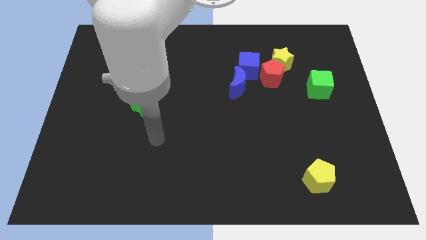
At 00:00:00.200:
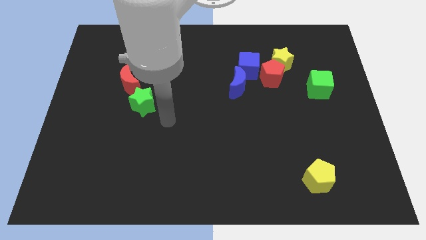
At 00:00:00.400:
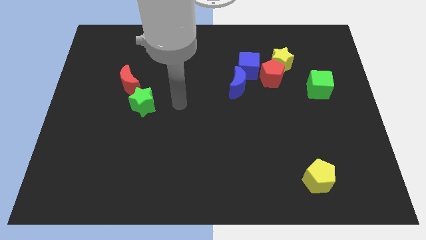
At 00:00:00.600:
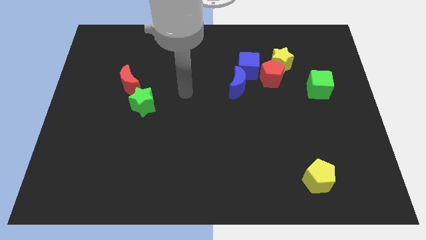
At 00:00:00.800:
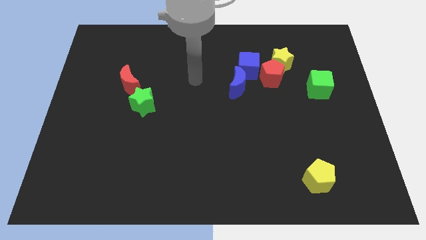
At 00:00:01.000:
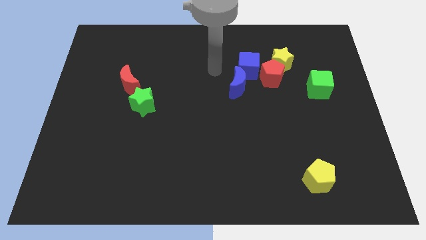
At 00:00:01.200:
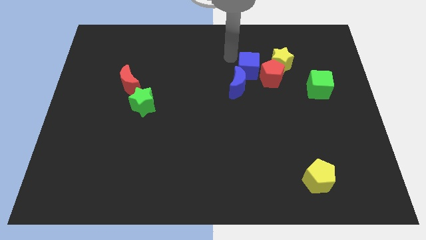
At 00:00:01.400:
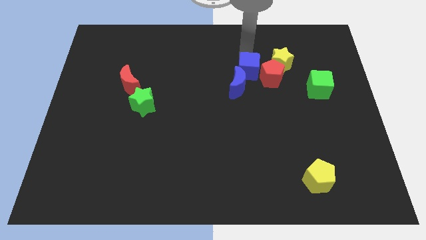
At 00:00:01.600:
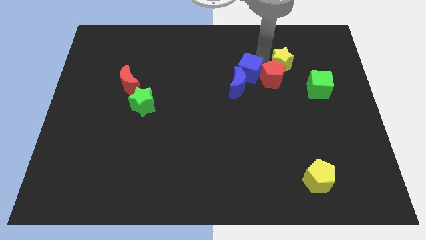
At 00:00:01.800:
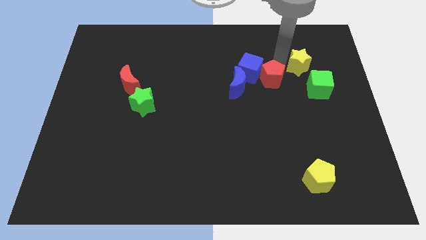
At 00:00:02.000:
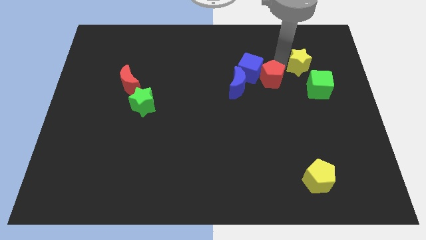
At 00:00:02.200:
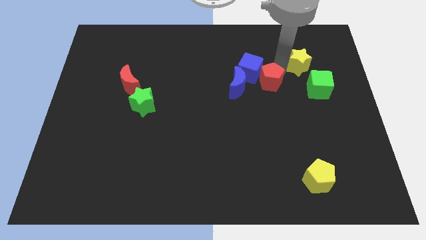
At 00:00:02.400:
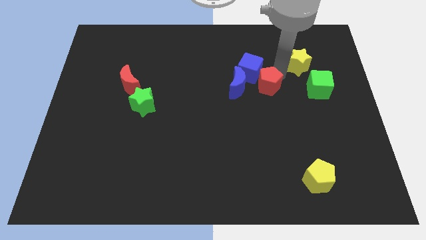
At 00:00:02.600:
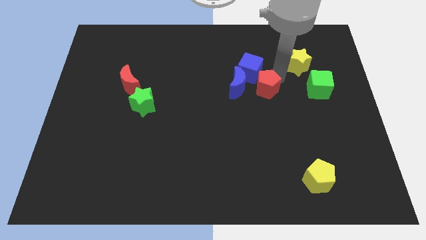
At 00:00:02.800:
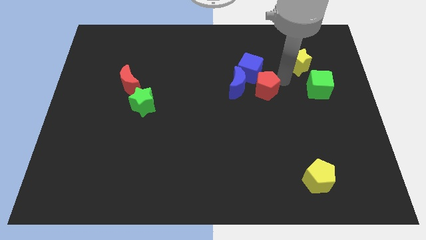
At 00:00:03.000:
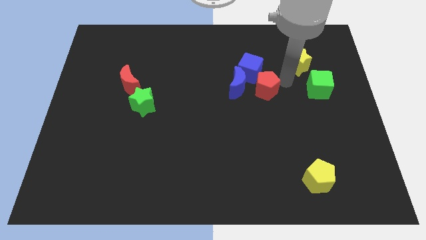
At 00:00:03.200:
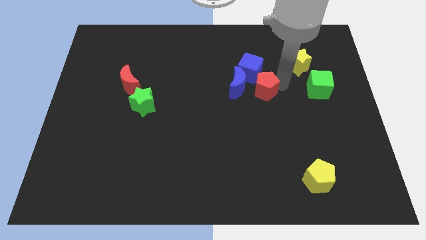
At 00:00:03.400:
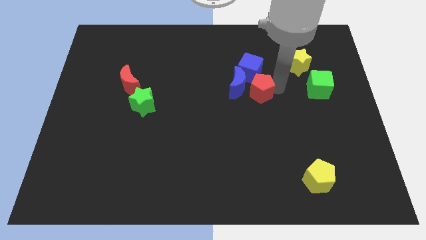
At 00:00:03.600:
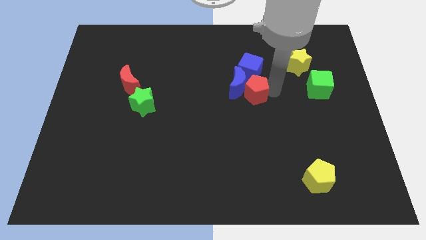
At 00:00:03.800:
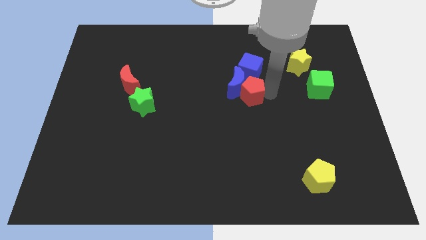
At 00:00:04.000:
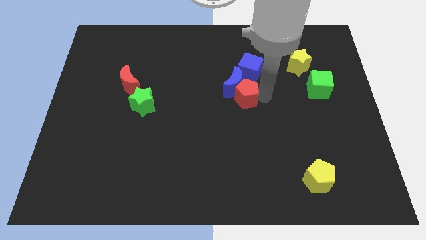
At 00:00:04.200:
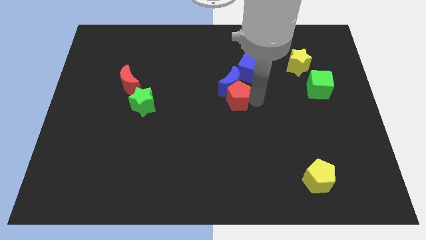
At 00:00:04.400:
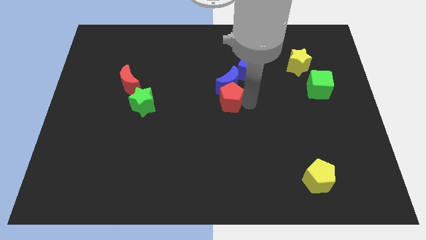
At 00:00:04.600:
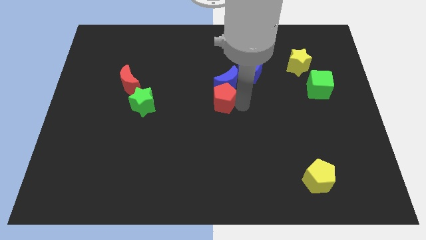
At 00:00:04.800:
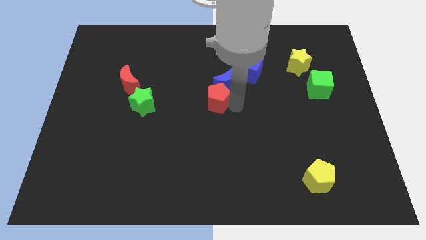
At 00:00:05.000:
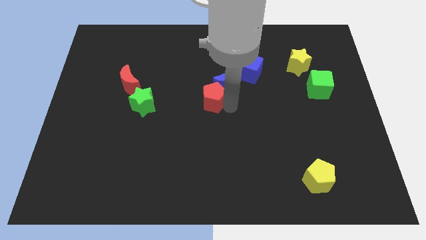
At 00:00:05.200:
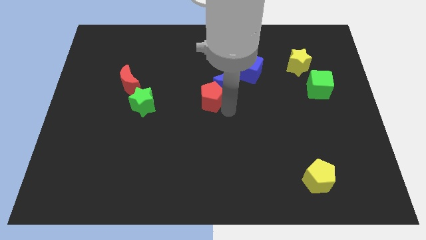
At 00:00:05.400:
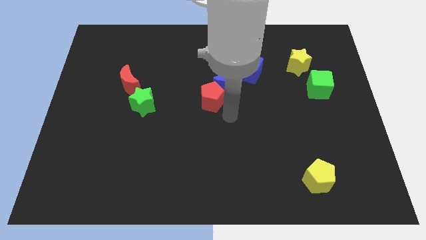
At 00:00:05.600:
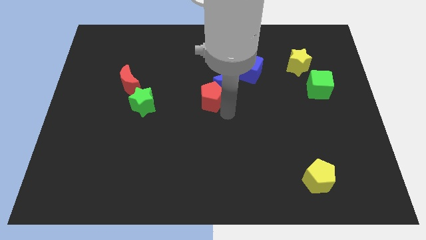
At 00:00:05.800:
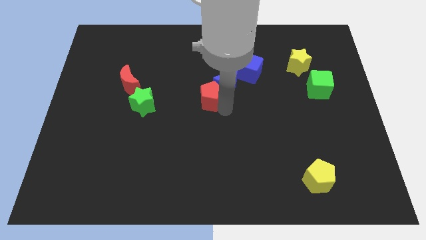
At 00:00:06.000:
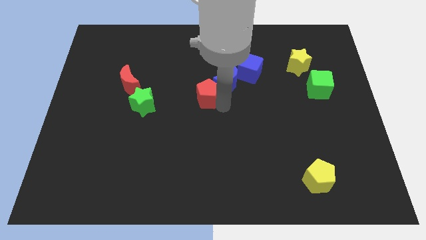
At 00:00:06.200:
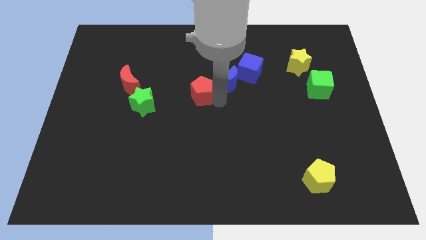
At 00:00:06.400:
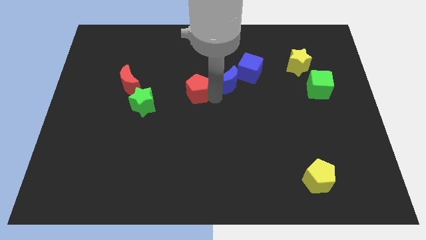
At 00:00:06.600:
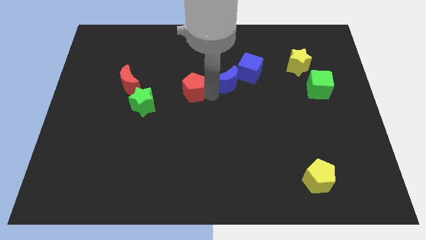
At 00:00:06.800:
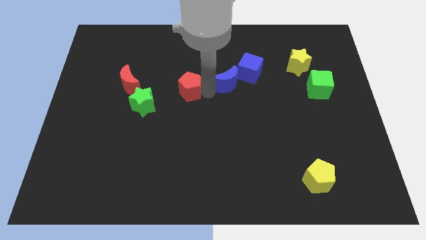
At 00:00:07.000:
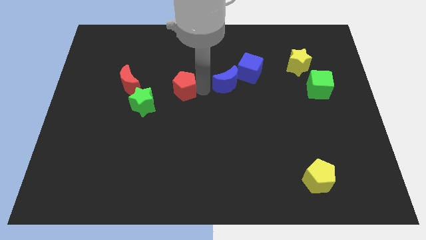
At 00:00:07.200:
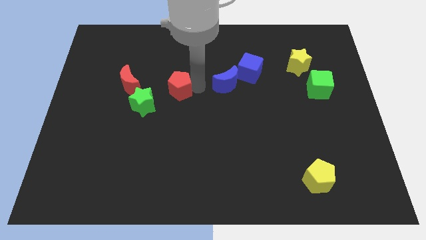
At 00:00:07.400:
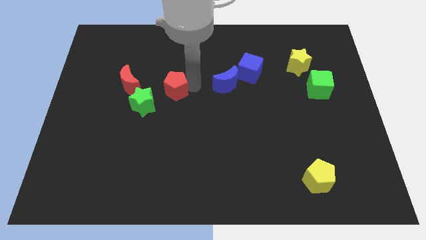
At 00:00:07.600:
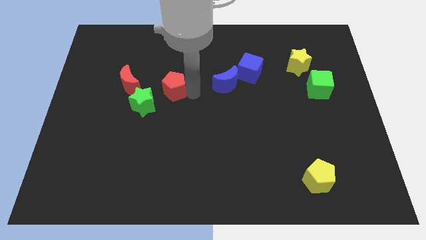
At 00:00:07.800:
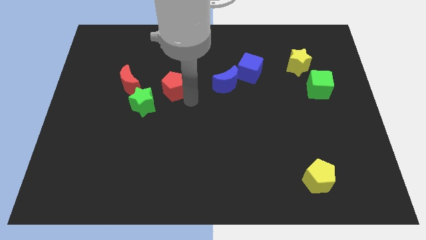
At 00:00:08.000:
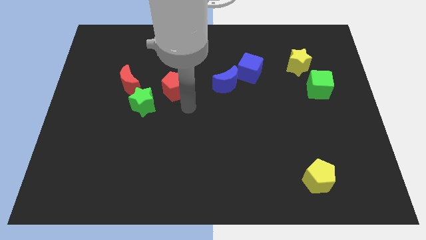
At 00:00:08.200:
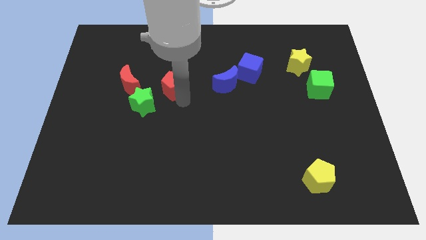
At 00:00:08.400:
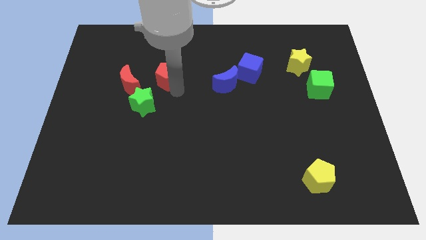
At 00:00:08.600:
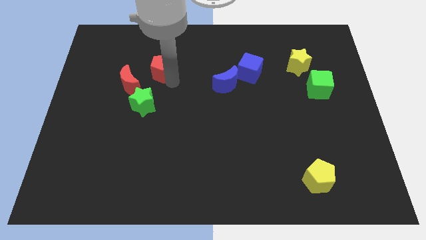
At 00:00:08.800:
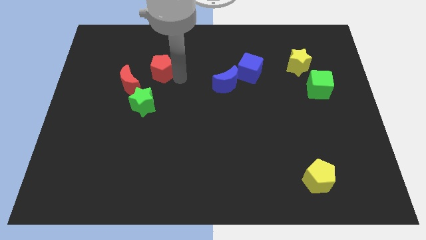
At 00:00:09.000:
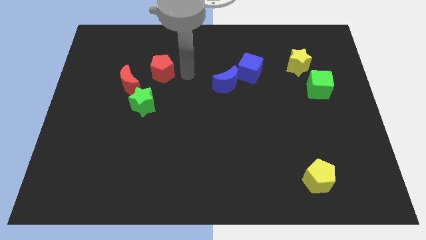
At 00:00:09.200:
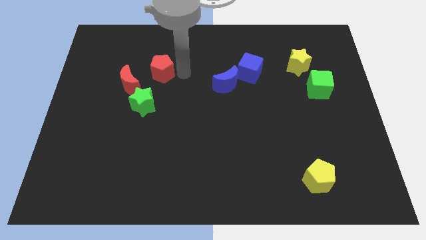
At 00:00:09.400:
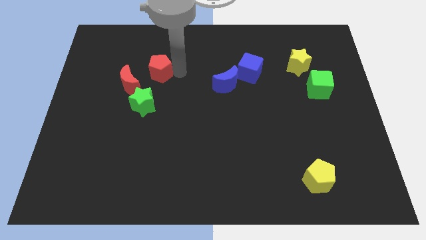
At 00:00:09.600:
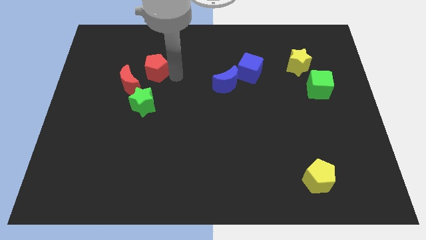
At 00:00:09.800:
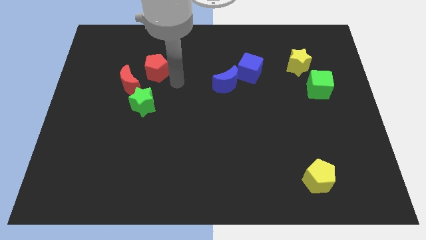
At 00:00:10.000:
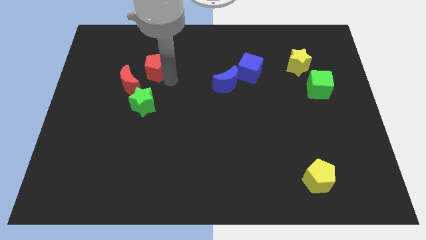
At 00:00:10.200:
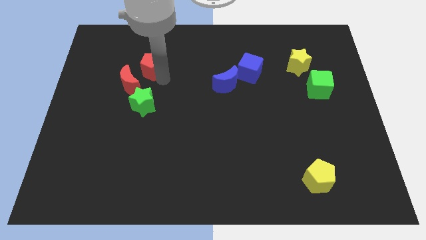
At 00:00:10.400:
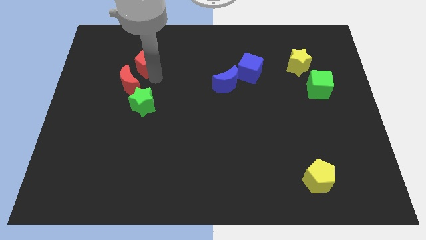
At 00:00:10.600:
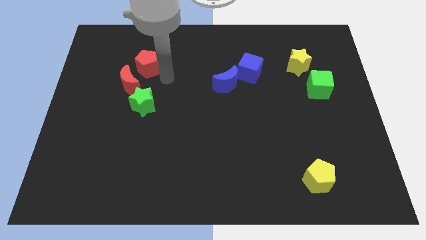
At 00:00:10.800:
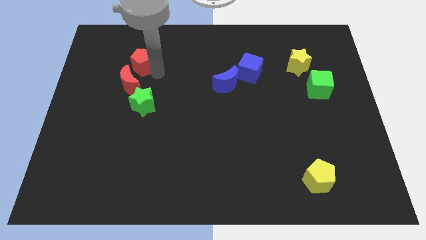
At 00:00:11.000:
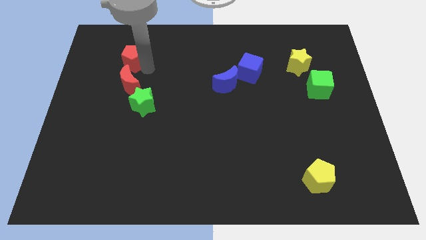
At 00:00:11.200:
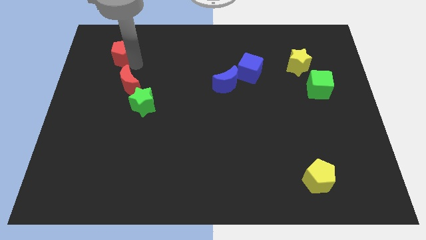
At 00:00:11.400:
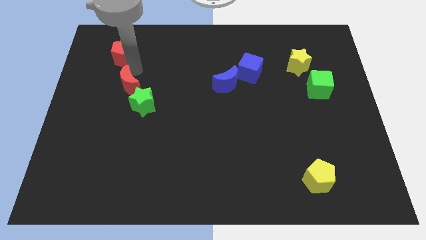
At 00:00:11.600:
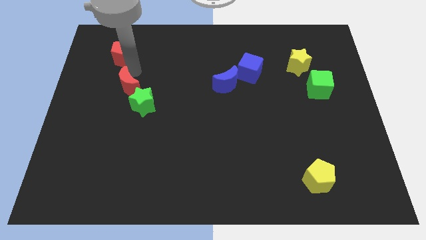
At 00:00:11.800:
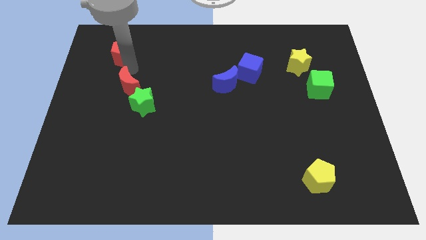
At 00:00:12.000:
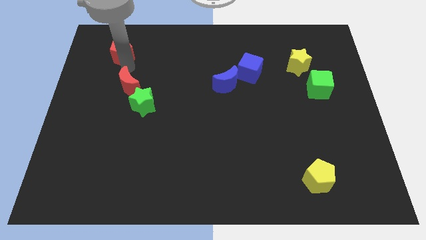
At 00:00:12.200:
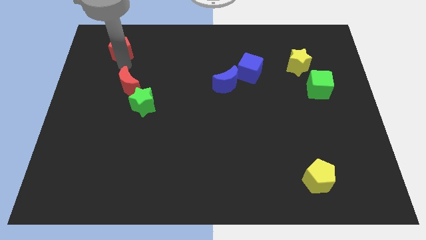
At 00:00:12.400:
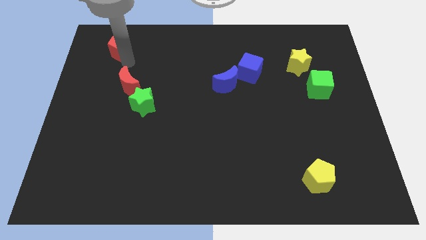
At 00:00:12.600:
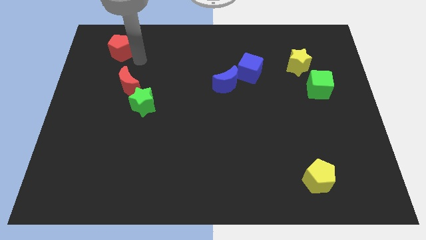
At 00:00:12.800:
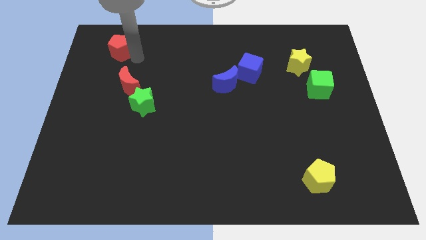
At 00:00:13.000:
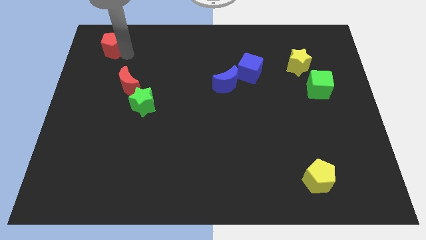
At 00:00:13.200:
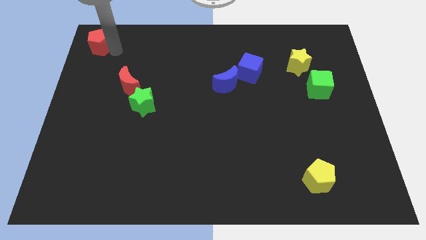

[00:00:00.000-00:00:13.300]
put the red pentagon to the top left corner

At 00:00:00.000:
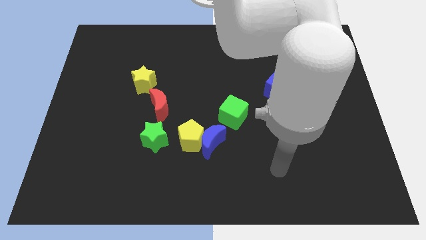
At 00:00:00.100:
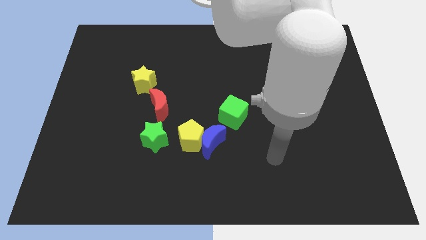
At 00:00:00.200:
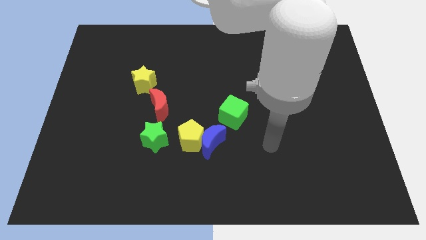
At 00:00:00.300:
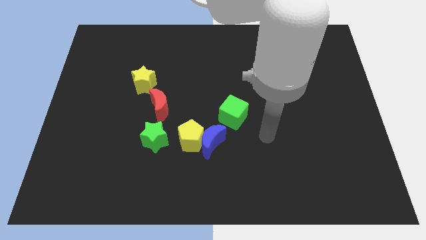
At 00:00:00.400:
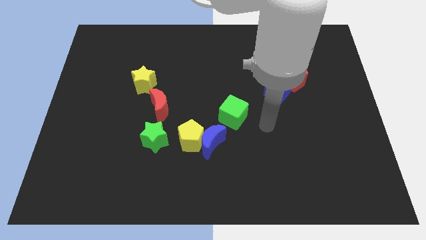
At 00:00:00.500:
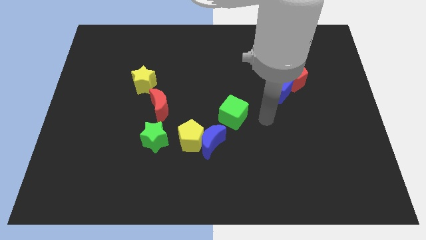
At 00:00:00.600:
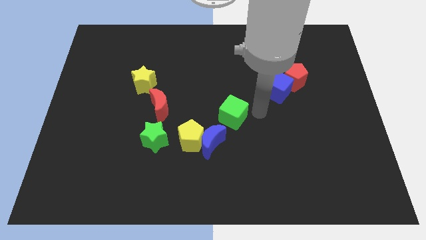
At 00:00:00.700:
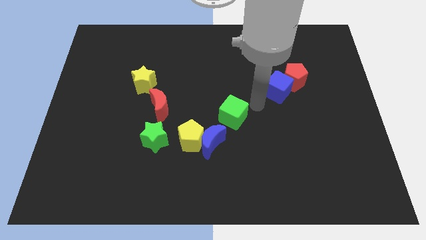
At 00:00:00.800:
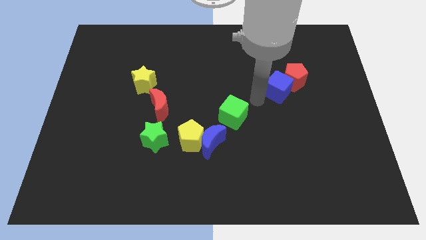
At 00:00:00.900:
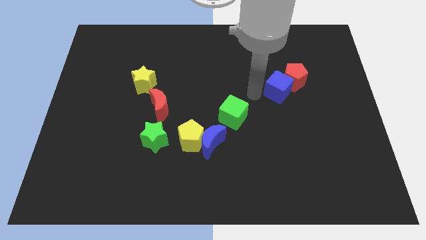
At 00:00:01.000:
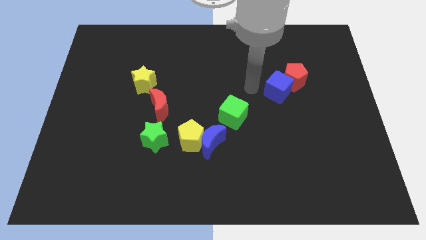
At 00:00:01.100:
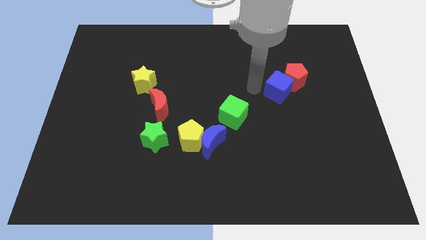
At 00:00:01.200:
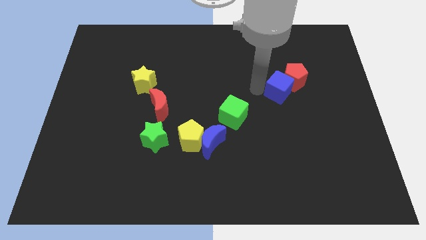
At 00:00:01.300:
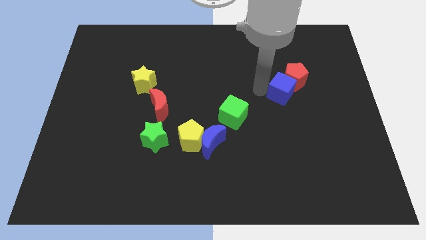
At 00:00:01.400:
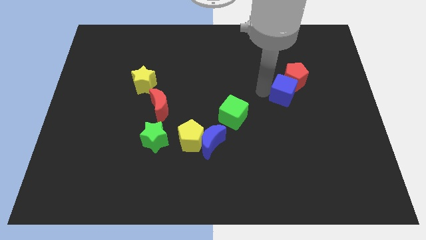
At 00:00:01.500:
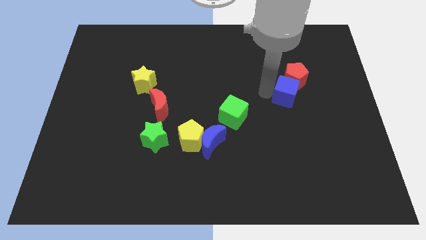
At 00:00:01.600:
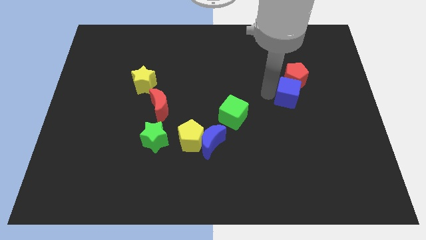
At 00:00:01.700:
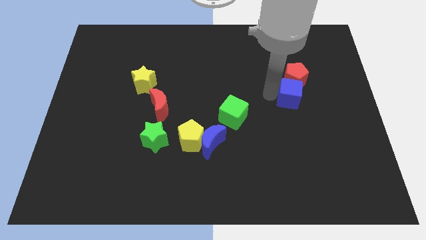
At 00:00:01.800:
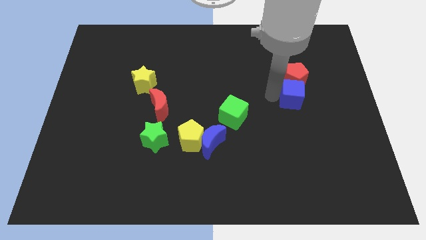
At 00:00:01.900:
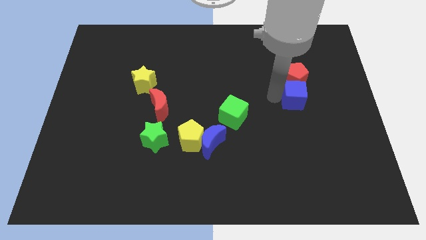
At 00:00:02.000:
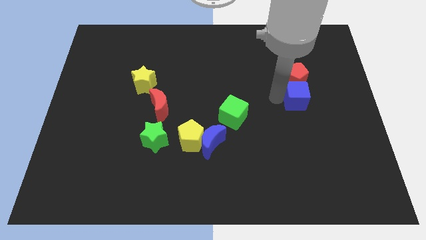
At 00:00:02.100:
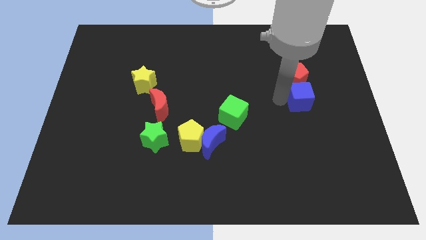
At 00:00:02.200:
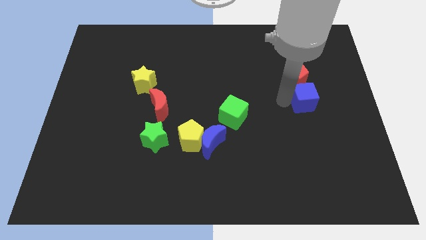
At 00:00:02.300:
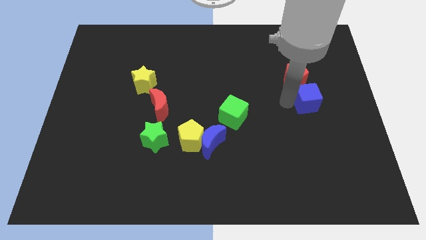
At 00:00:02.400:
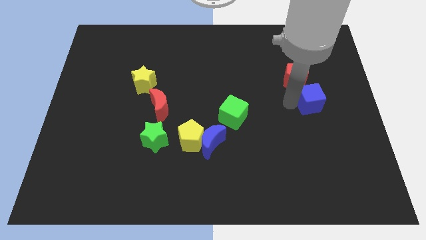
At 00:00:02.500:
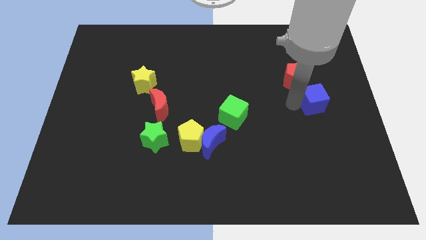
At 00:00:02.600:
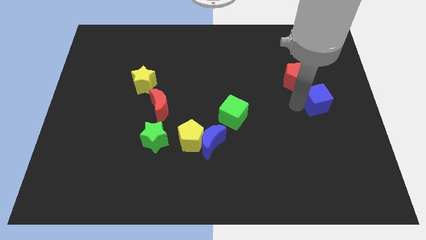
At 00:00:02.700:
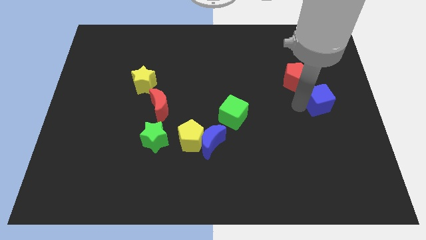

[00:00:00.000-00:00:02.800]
put the blue cube to the right side
